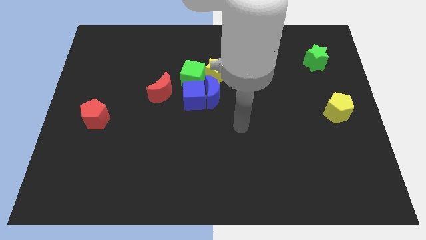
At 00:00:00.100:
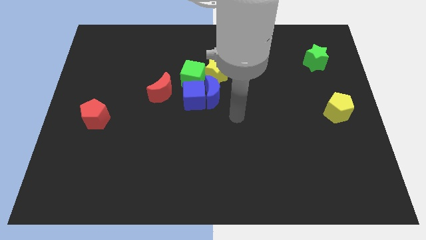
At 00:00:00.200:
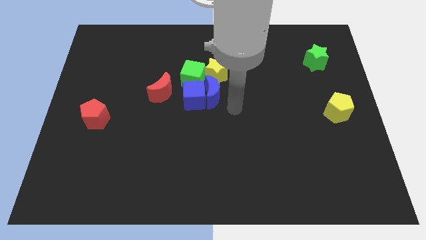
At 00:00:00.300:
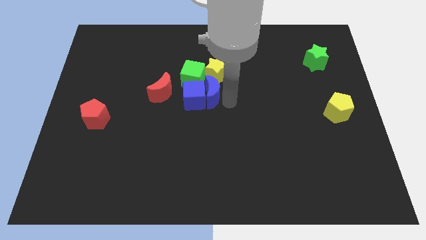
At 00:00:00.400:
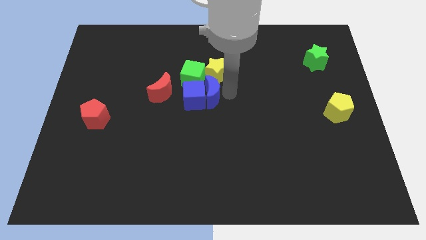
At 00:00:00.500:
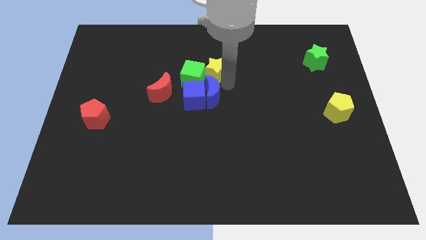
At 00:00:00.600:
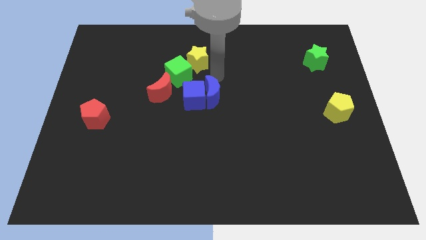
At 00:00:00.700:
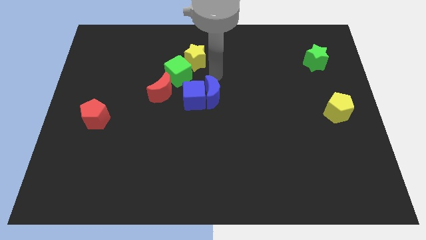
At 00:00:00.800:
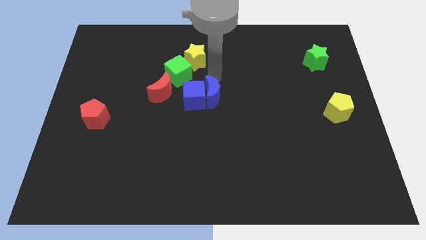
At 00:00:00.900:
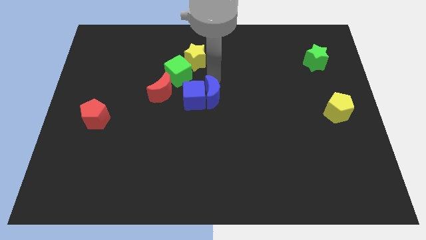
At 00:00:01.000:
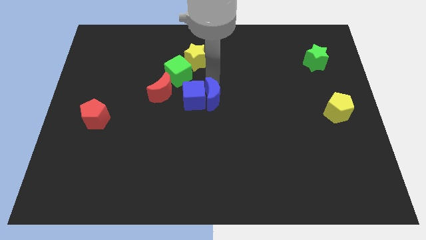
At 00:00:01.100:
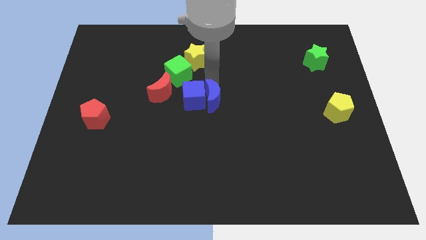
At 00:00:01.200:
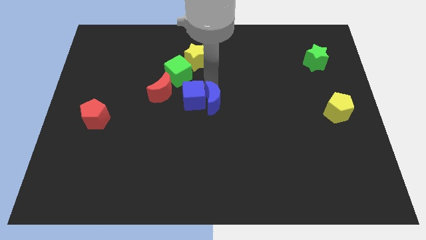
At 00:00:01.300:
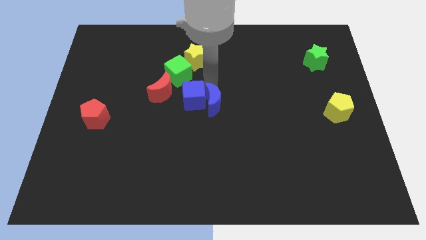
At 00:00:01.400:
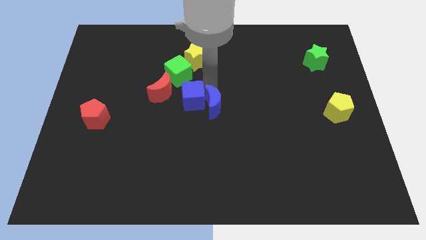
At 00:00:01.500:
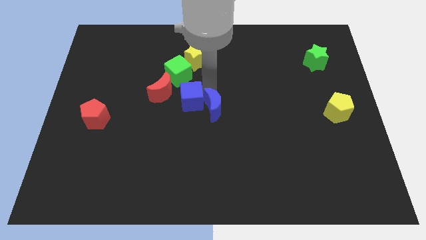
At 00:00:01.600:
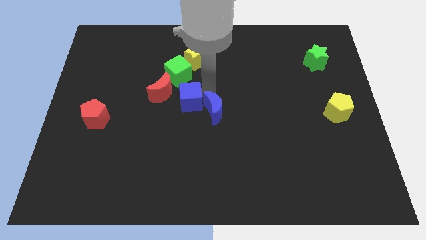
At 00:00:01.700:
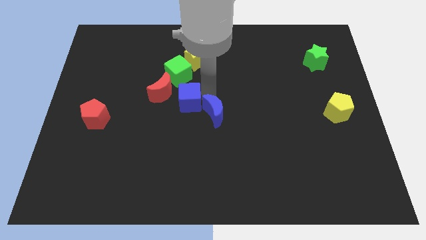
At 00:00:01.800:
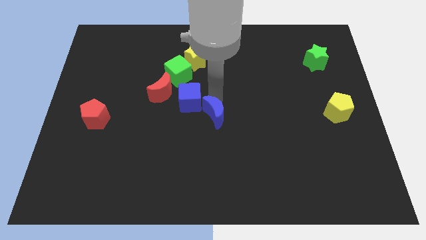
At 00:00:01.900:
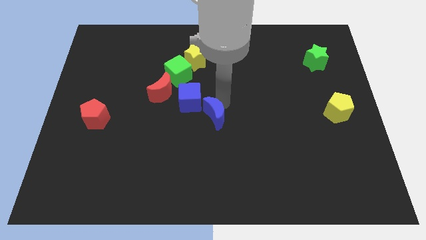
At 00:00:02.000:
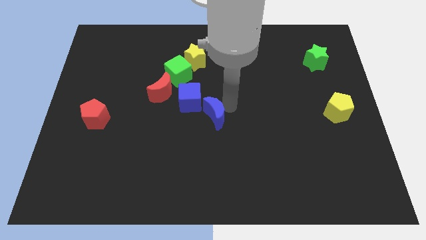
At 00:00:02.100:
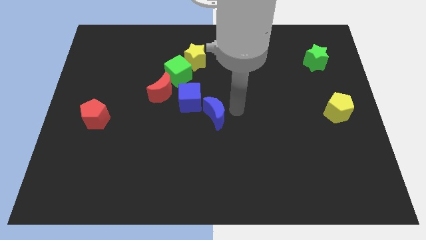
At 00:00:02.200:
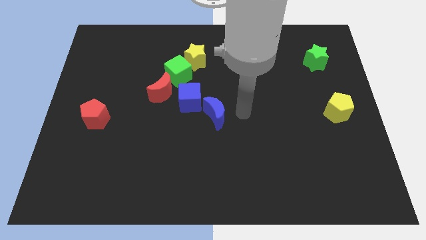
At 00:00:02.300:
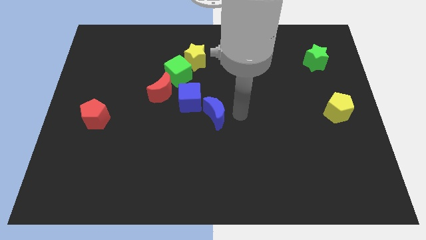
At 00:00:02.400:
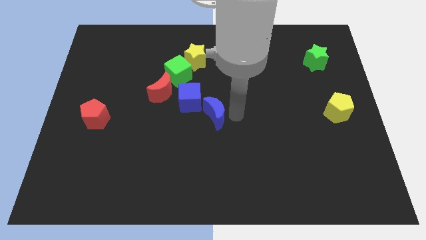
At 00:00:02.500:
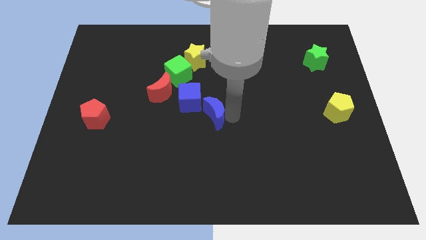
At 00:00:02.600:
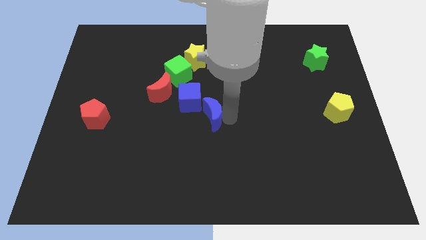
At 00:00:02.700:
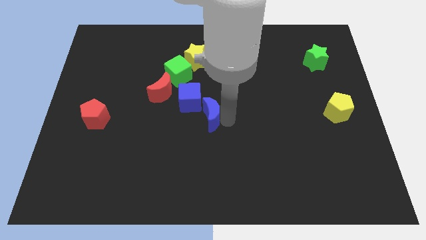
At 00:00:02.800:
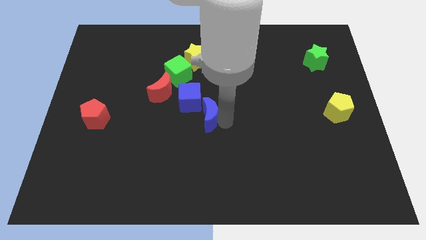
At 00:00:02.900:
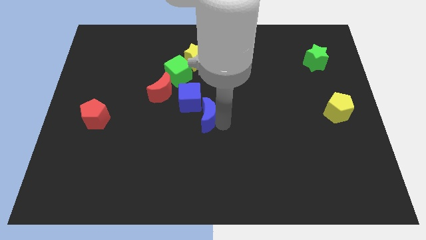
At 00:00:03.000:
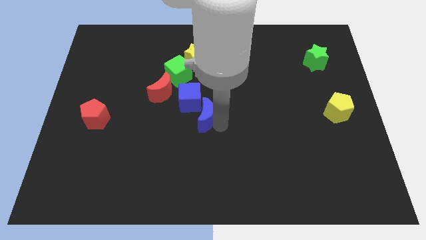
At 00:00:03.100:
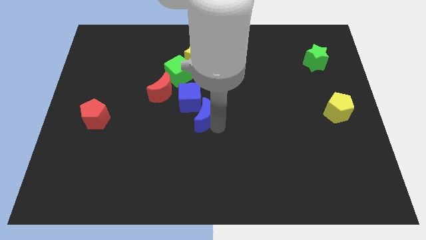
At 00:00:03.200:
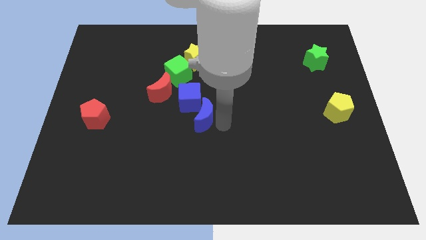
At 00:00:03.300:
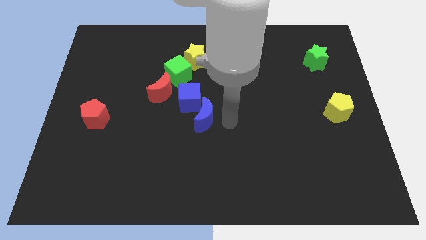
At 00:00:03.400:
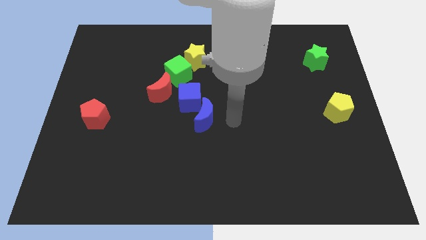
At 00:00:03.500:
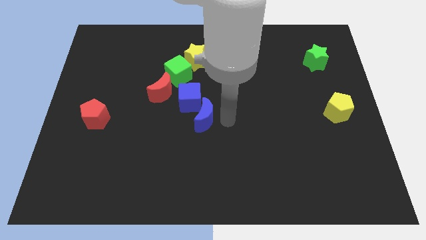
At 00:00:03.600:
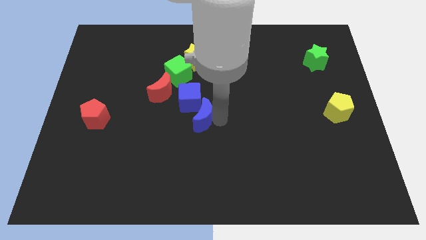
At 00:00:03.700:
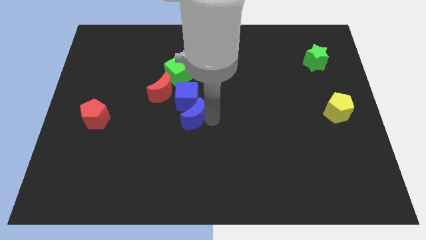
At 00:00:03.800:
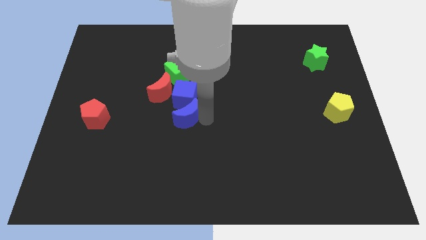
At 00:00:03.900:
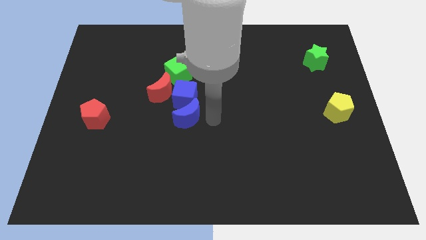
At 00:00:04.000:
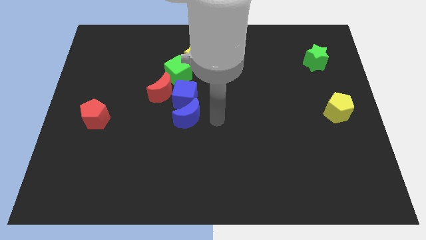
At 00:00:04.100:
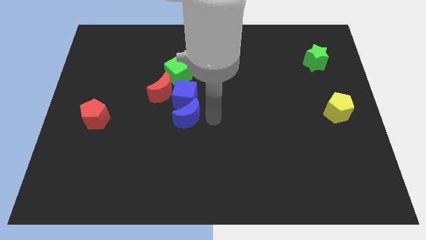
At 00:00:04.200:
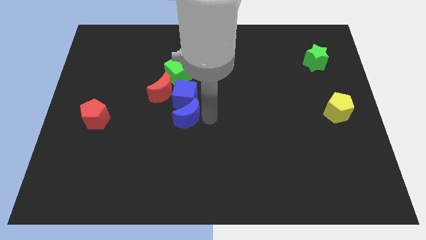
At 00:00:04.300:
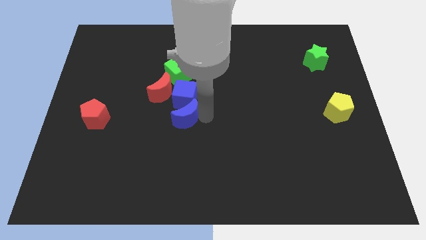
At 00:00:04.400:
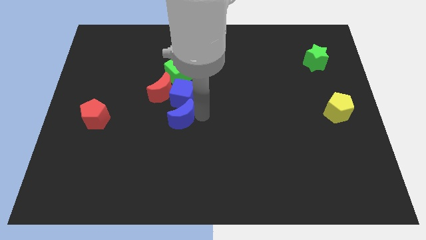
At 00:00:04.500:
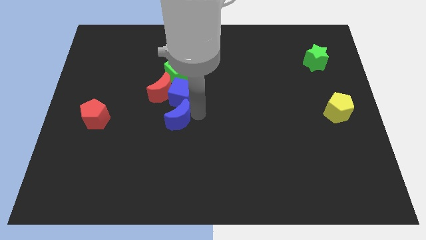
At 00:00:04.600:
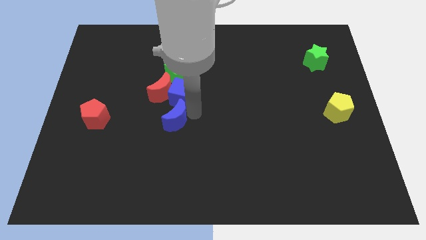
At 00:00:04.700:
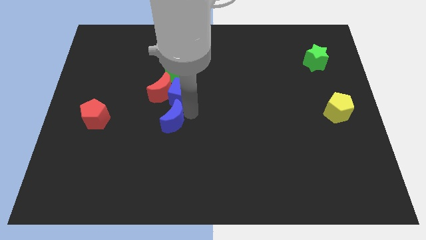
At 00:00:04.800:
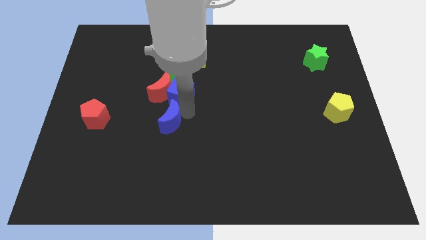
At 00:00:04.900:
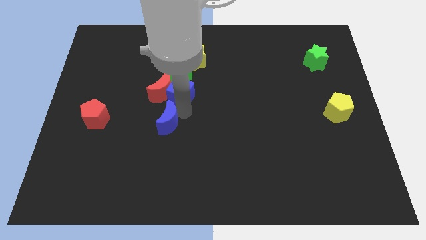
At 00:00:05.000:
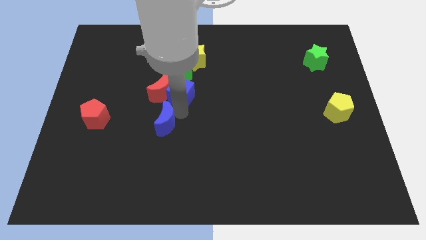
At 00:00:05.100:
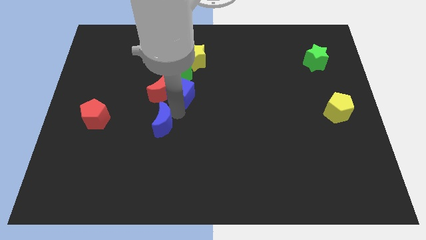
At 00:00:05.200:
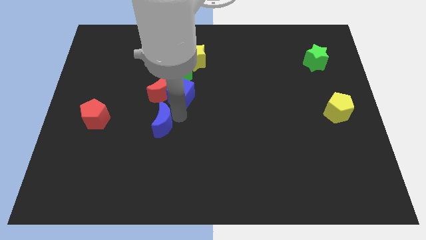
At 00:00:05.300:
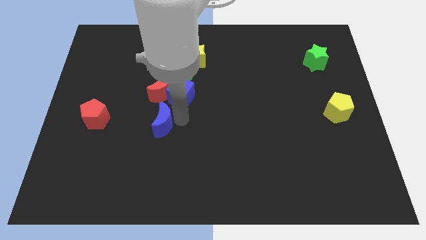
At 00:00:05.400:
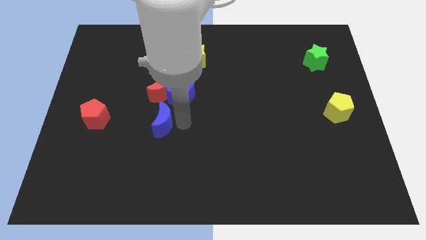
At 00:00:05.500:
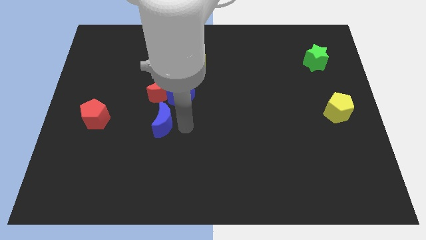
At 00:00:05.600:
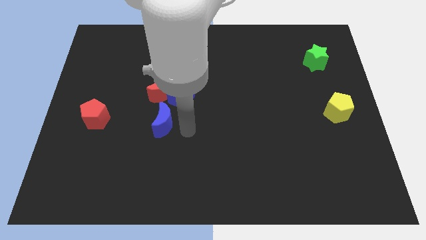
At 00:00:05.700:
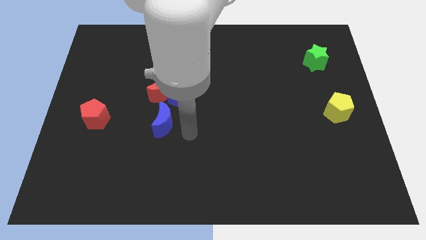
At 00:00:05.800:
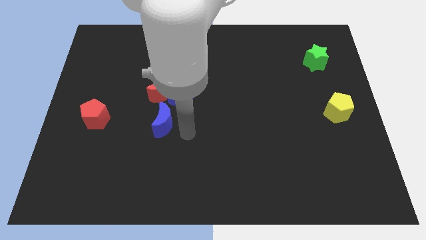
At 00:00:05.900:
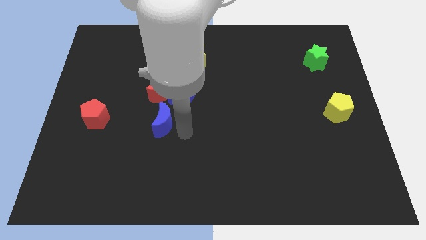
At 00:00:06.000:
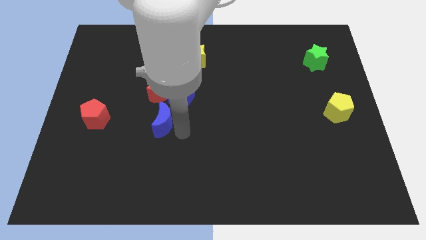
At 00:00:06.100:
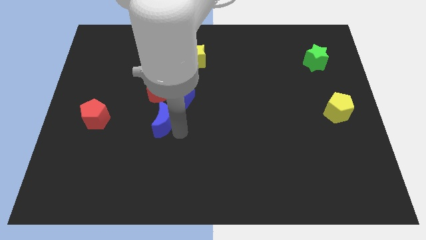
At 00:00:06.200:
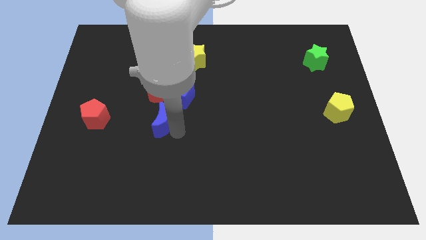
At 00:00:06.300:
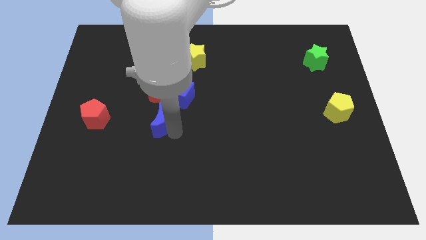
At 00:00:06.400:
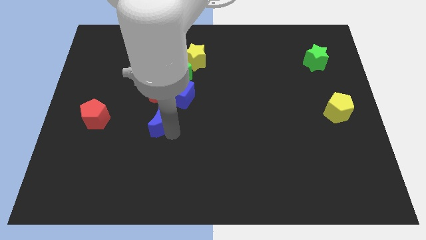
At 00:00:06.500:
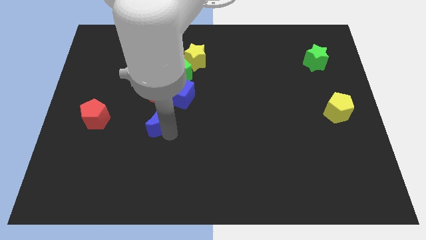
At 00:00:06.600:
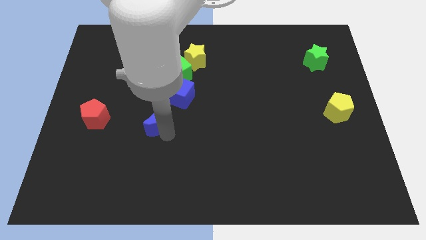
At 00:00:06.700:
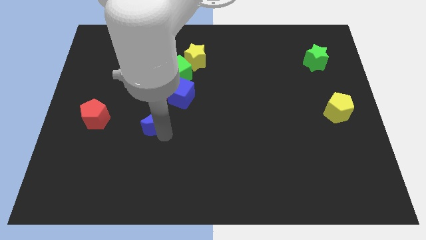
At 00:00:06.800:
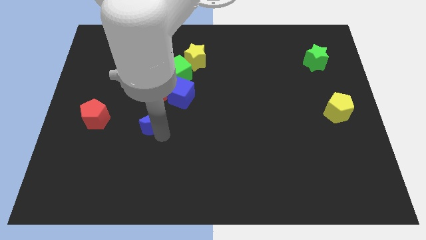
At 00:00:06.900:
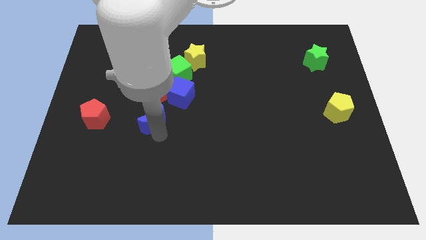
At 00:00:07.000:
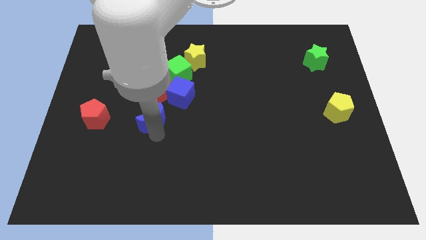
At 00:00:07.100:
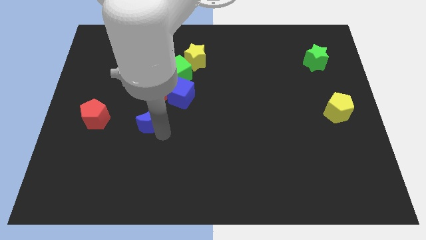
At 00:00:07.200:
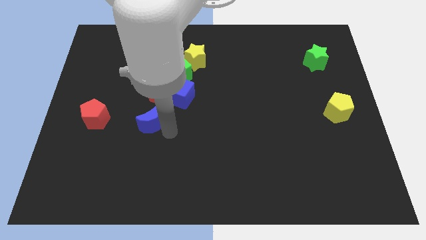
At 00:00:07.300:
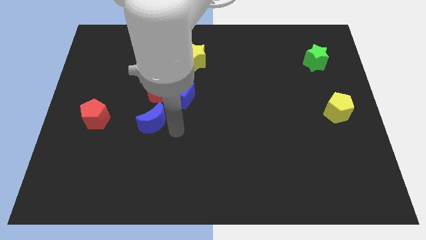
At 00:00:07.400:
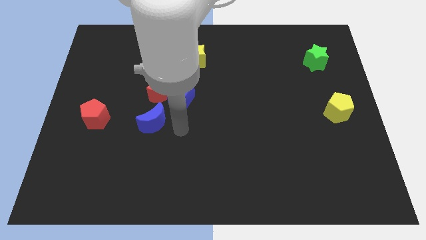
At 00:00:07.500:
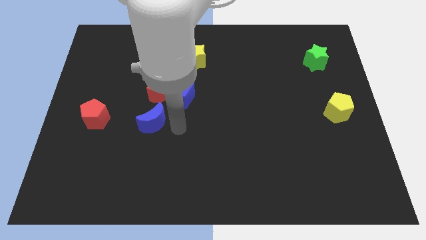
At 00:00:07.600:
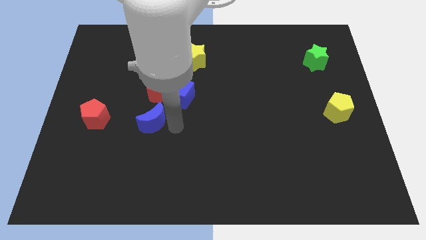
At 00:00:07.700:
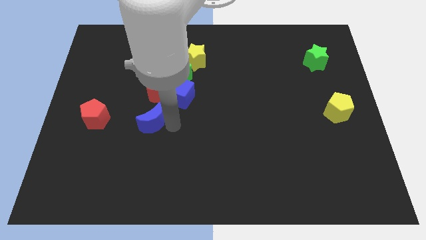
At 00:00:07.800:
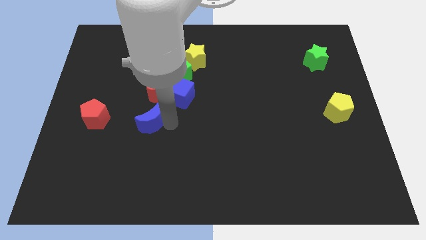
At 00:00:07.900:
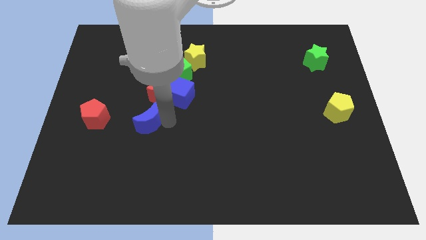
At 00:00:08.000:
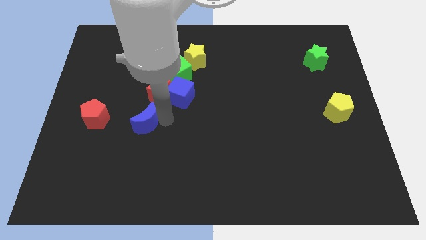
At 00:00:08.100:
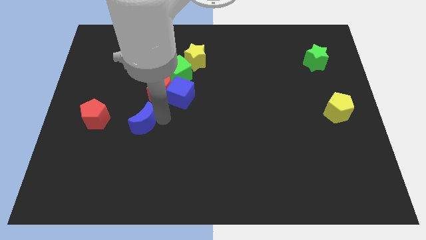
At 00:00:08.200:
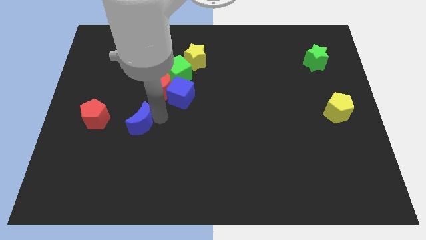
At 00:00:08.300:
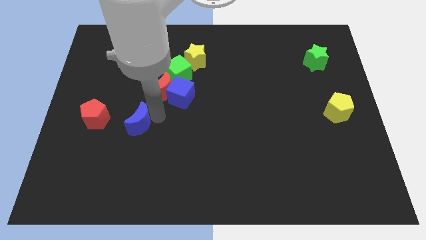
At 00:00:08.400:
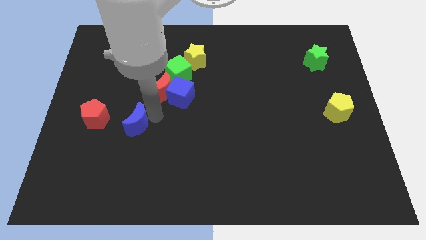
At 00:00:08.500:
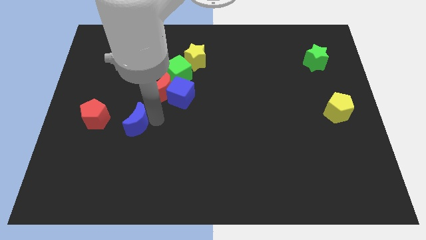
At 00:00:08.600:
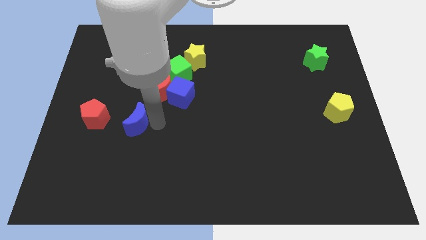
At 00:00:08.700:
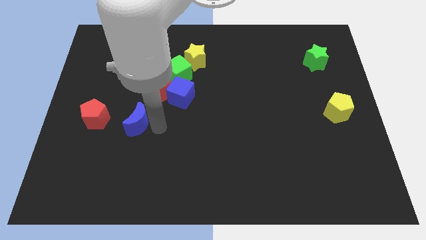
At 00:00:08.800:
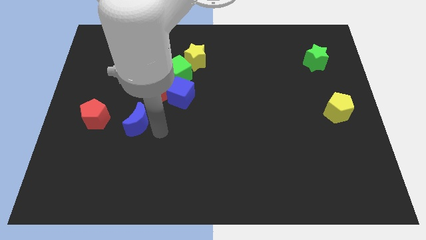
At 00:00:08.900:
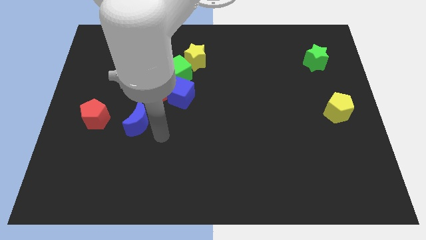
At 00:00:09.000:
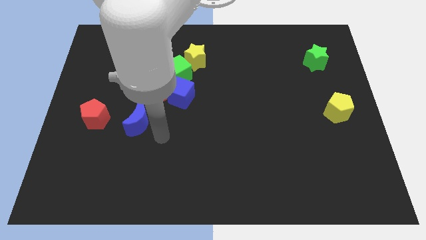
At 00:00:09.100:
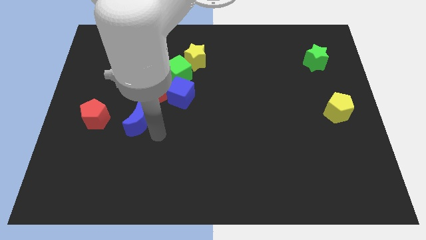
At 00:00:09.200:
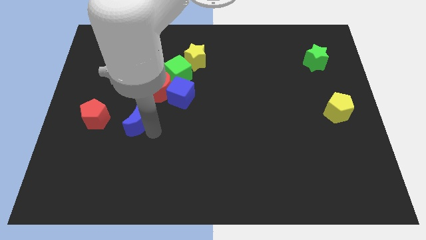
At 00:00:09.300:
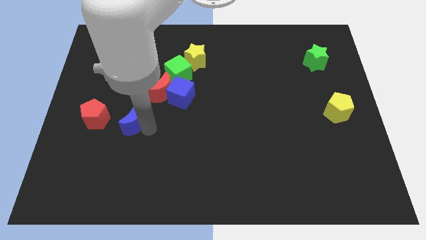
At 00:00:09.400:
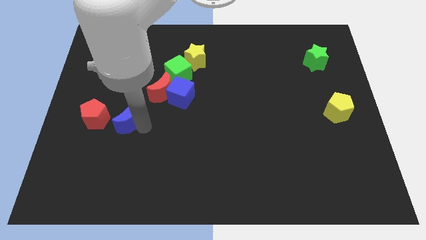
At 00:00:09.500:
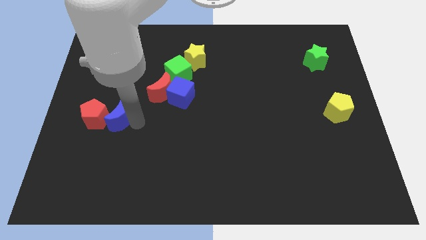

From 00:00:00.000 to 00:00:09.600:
slide the blue moon to the red pentagon
